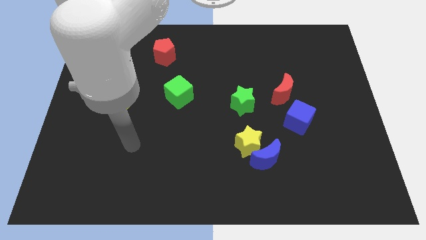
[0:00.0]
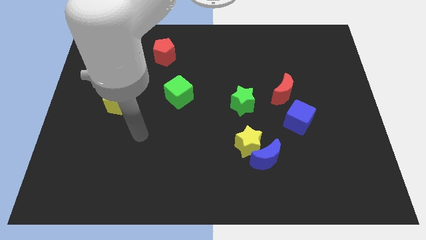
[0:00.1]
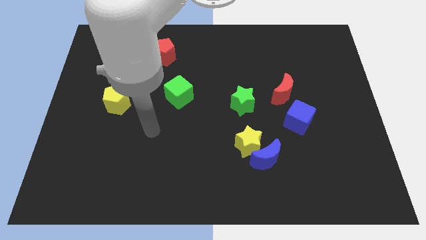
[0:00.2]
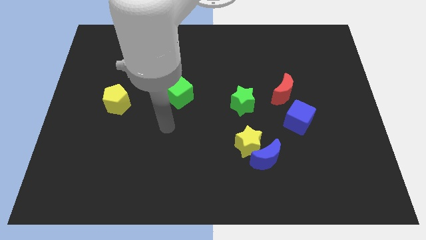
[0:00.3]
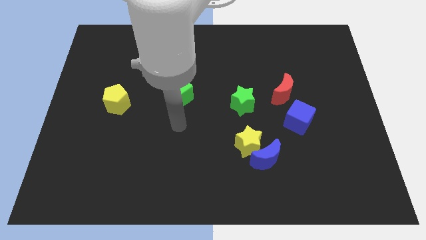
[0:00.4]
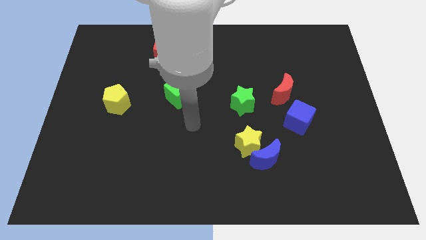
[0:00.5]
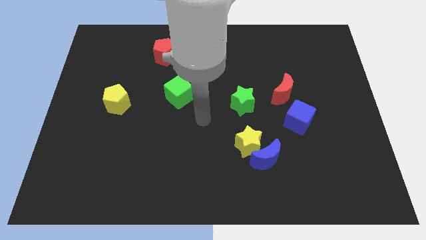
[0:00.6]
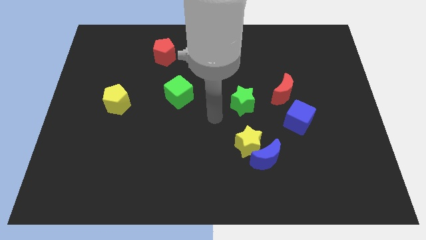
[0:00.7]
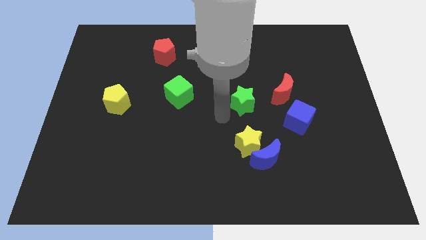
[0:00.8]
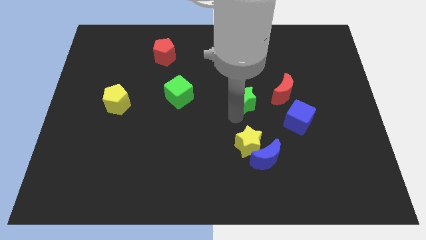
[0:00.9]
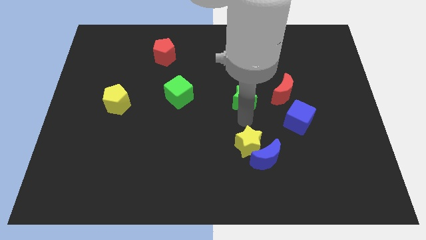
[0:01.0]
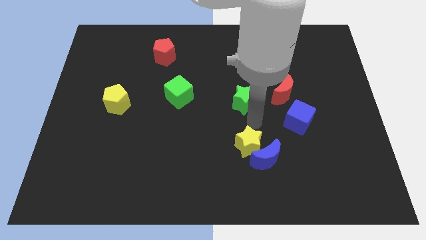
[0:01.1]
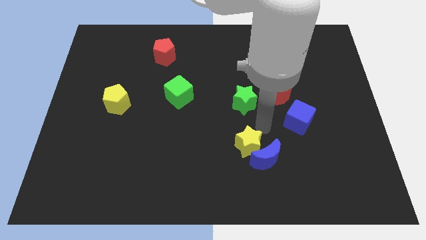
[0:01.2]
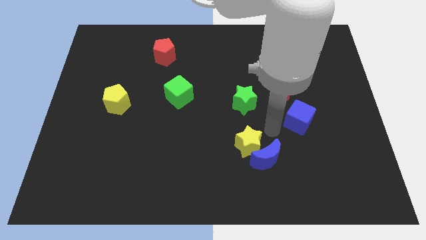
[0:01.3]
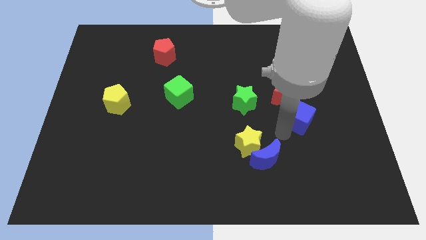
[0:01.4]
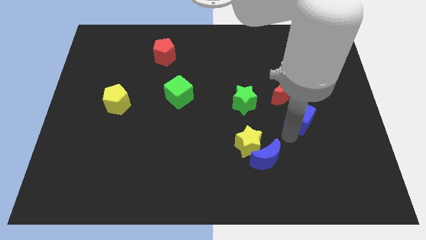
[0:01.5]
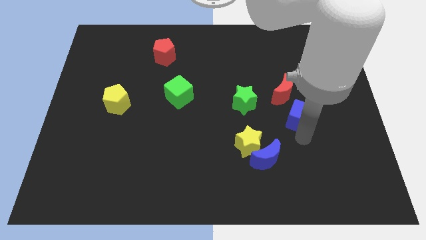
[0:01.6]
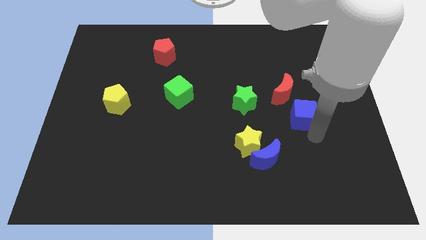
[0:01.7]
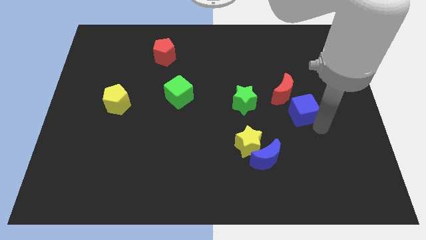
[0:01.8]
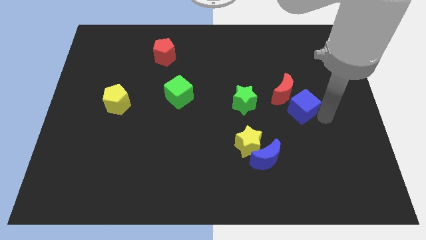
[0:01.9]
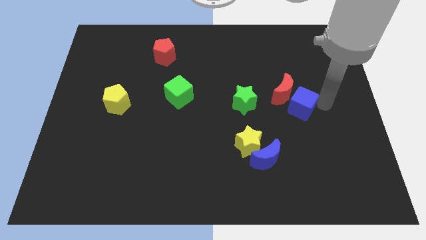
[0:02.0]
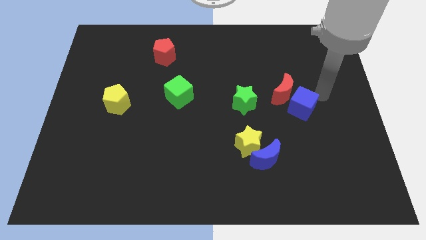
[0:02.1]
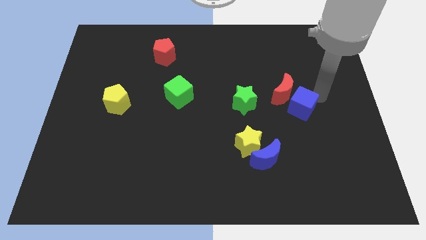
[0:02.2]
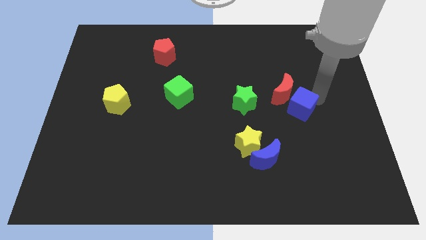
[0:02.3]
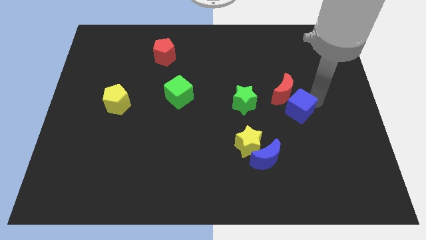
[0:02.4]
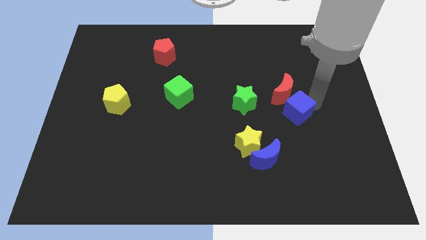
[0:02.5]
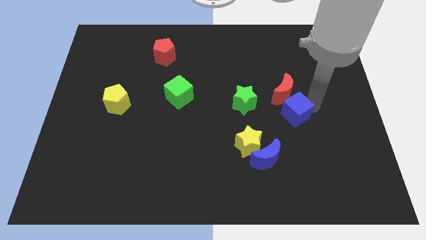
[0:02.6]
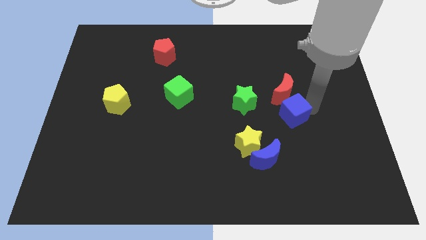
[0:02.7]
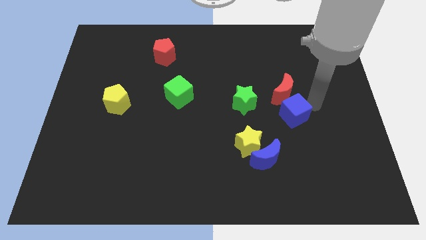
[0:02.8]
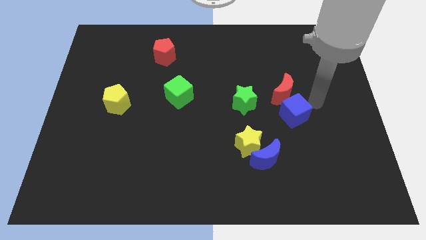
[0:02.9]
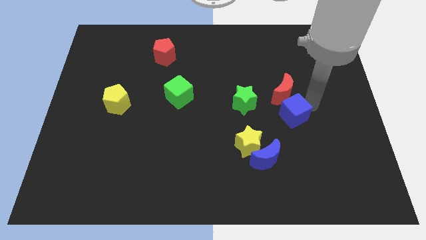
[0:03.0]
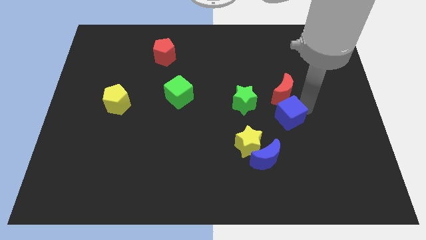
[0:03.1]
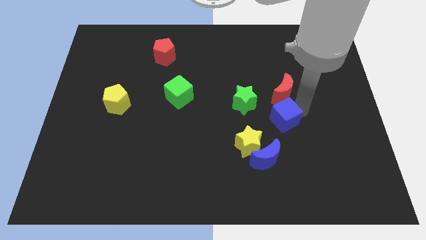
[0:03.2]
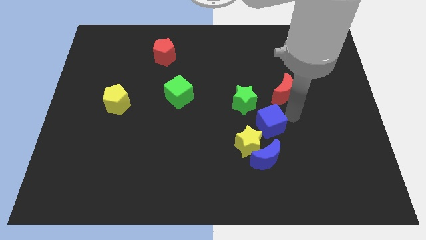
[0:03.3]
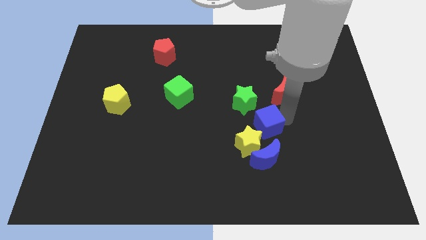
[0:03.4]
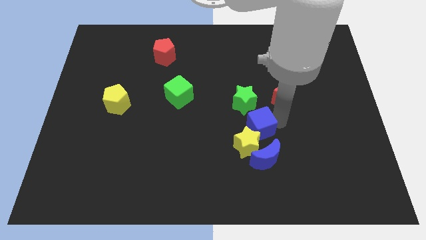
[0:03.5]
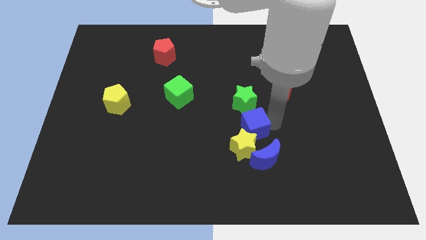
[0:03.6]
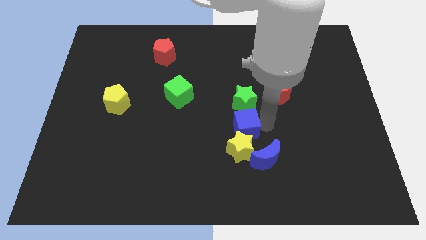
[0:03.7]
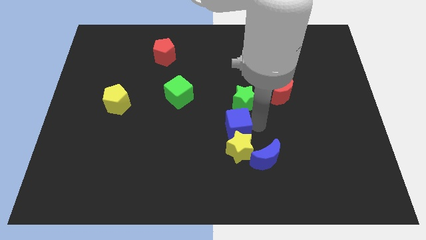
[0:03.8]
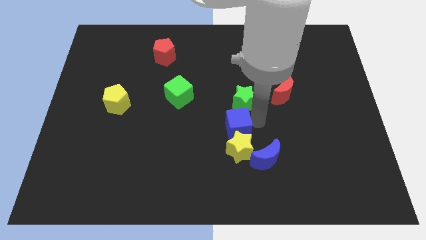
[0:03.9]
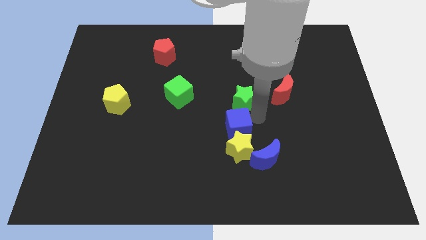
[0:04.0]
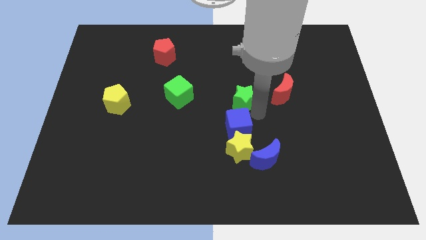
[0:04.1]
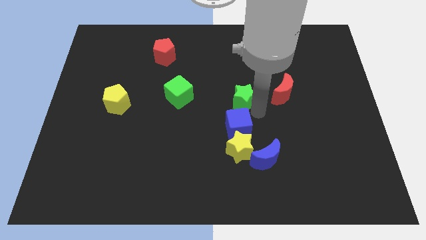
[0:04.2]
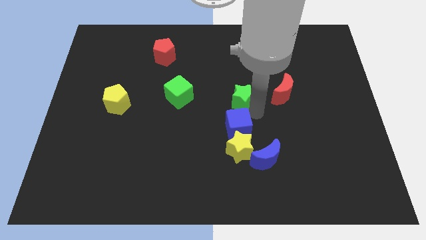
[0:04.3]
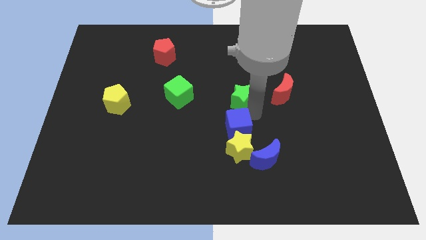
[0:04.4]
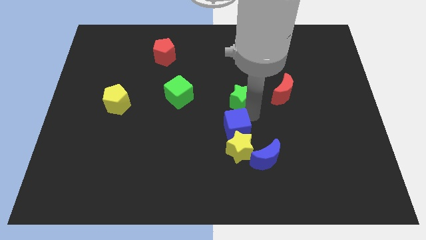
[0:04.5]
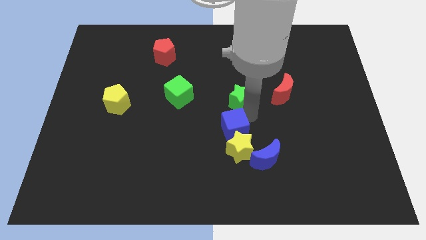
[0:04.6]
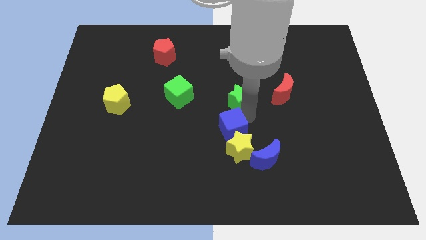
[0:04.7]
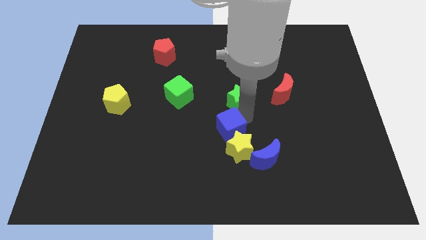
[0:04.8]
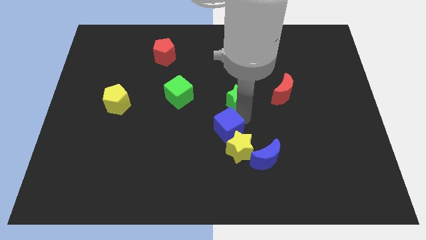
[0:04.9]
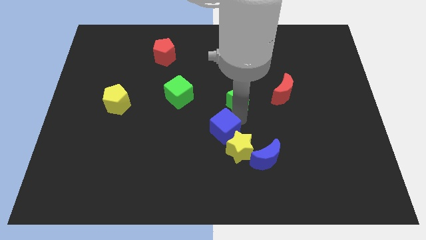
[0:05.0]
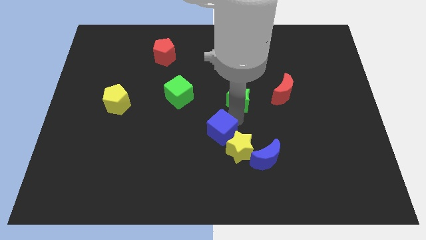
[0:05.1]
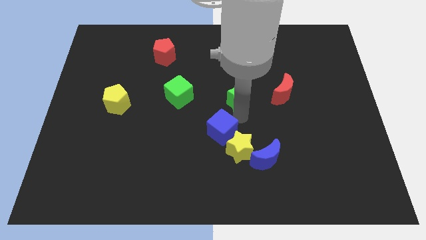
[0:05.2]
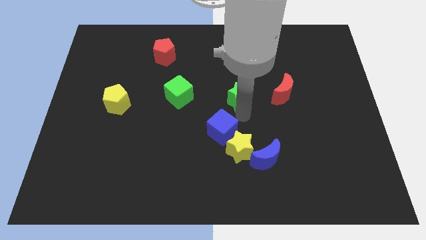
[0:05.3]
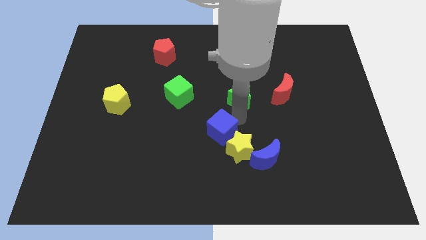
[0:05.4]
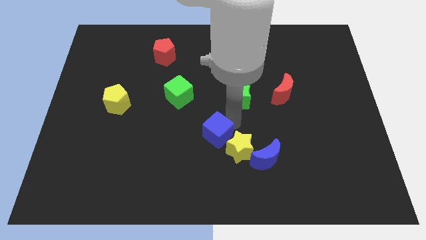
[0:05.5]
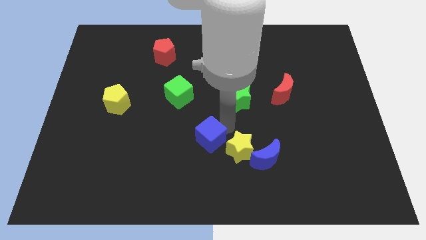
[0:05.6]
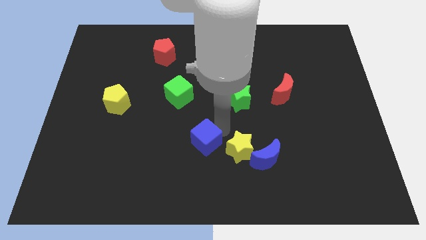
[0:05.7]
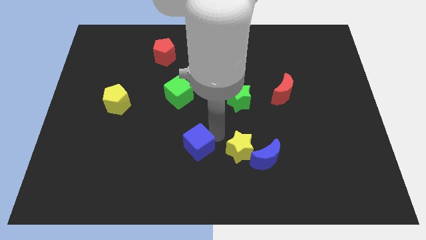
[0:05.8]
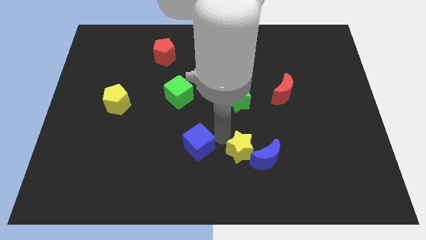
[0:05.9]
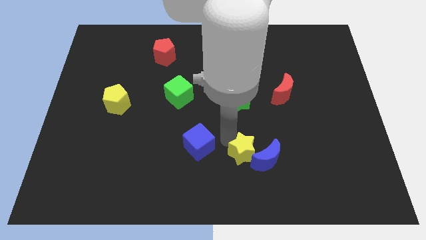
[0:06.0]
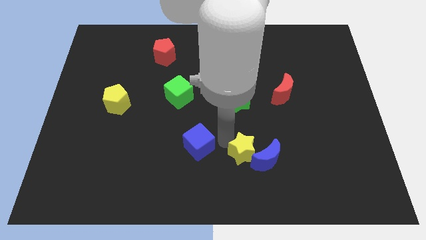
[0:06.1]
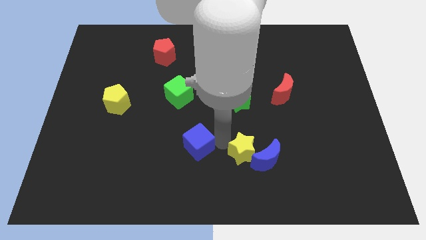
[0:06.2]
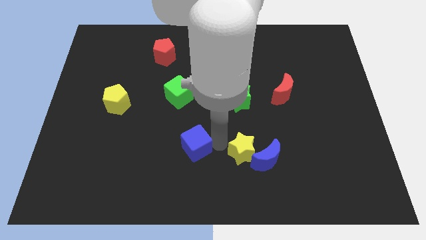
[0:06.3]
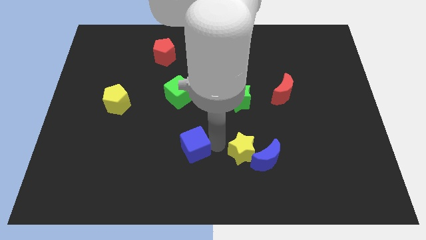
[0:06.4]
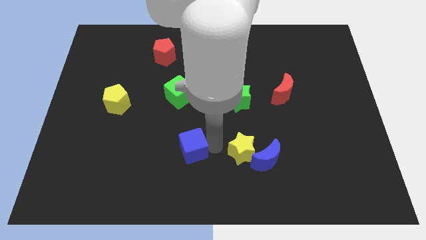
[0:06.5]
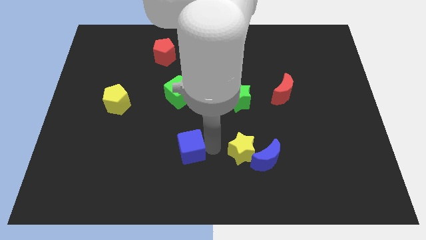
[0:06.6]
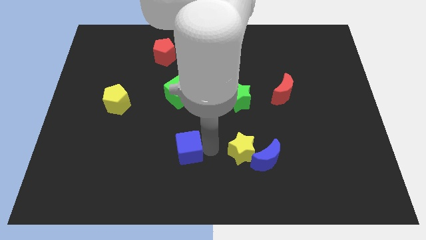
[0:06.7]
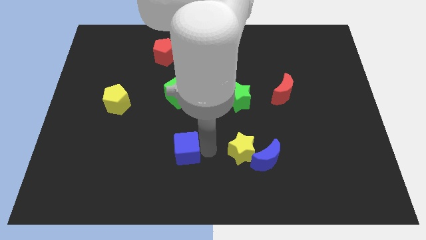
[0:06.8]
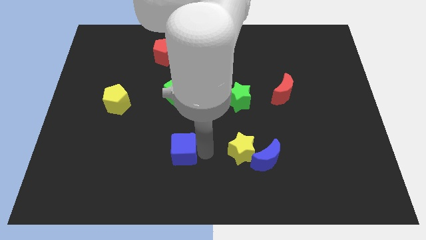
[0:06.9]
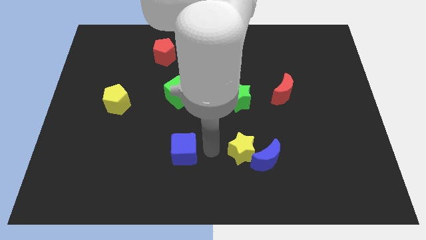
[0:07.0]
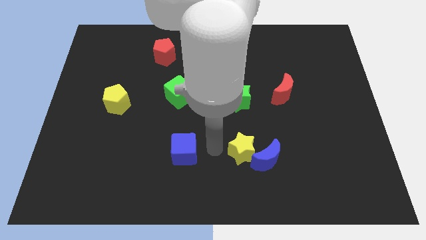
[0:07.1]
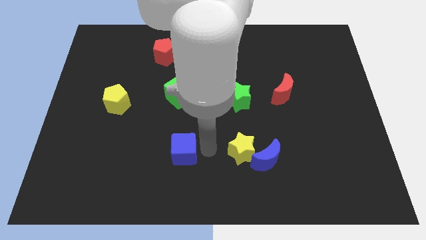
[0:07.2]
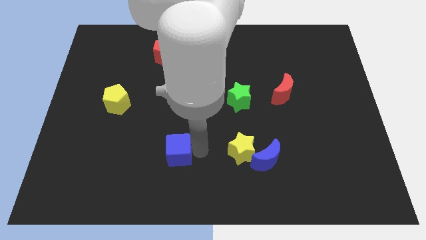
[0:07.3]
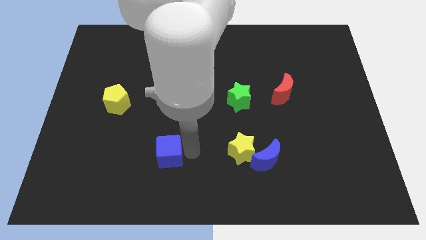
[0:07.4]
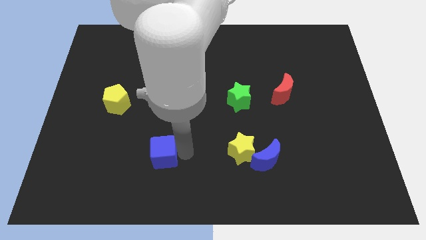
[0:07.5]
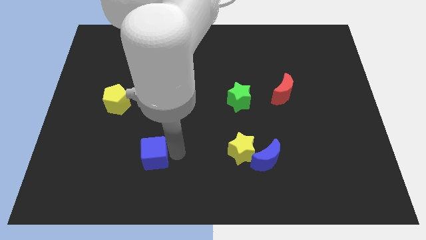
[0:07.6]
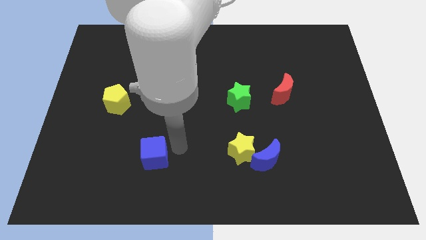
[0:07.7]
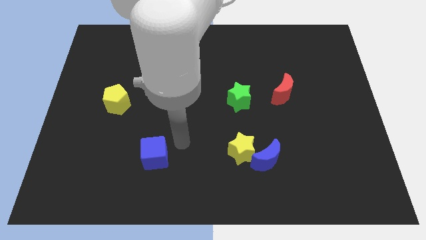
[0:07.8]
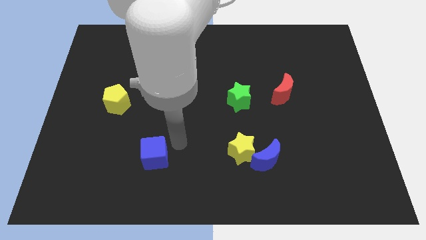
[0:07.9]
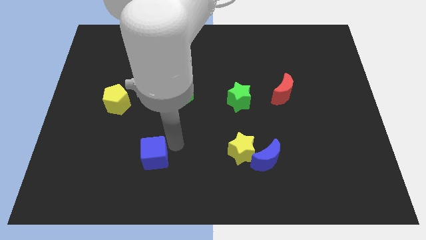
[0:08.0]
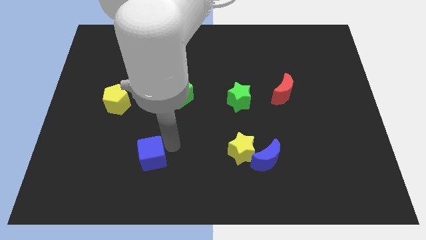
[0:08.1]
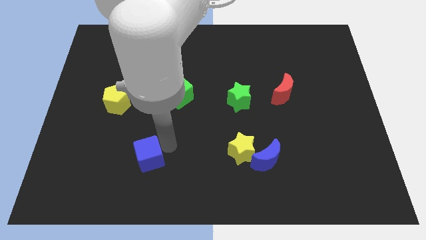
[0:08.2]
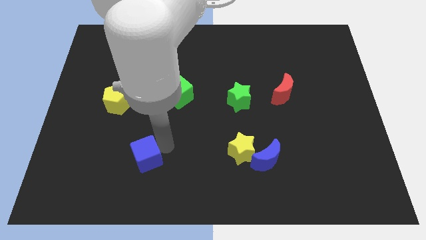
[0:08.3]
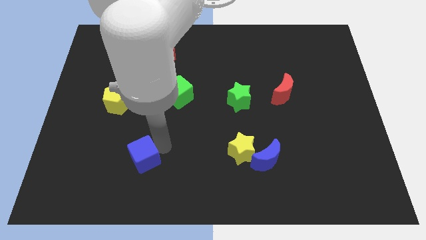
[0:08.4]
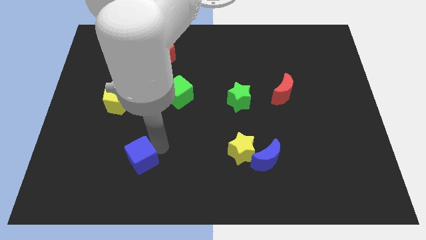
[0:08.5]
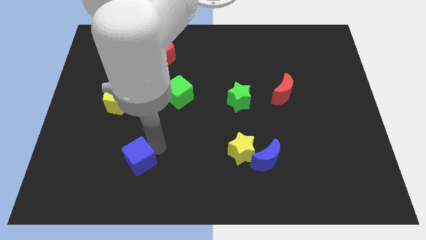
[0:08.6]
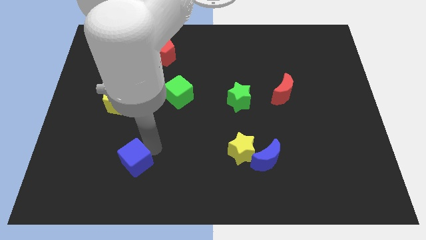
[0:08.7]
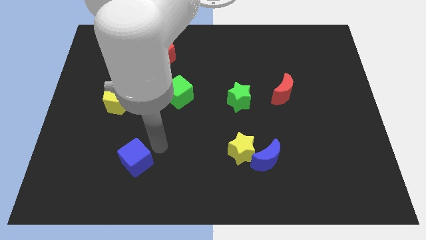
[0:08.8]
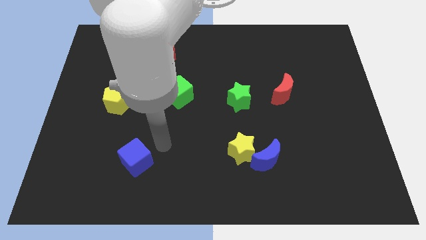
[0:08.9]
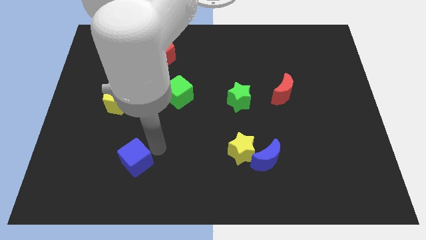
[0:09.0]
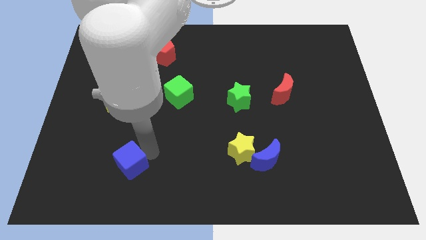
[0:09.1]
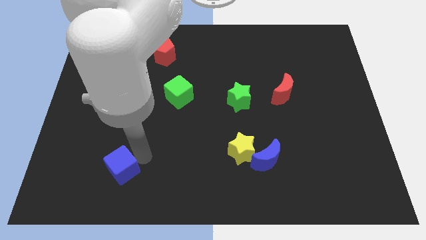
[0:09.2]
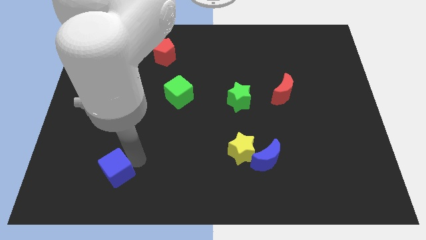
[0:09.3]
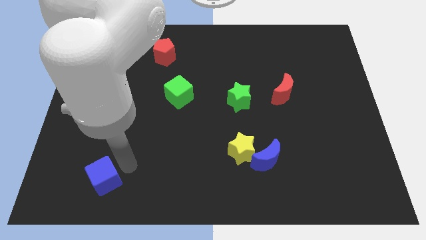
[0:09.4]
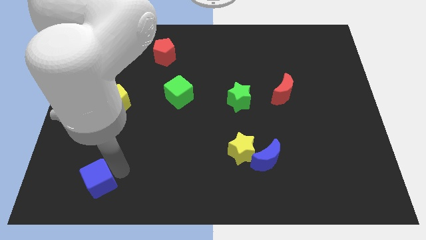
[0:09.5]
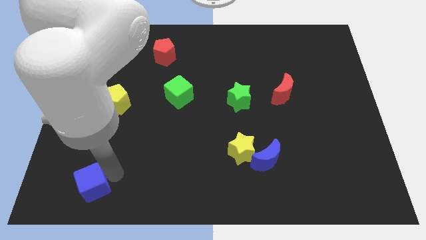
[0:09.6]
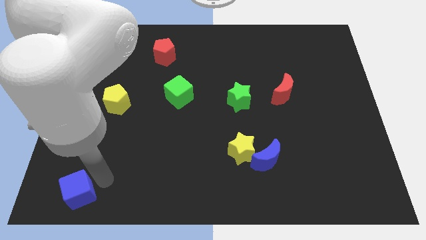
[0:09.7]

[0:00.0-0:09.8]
slide the blue cube to the bottom left corner
